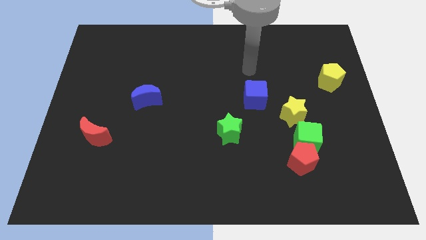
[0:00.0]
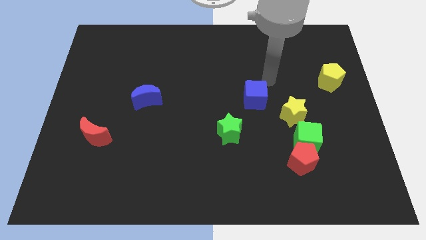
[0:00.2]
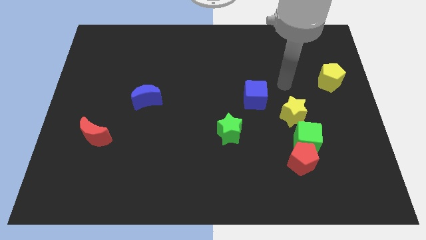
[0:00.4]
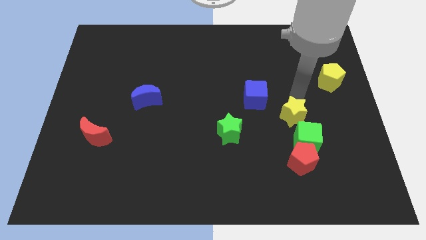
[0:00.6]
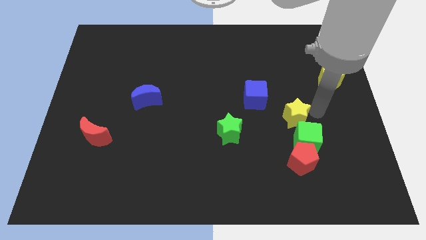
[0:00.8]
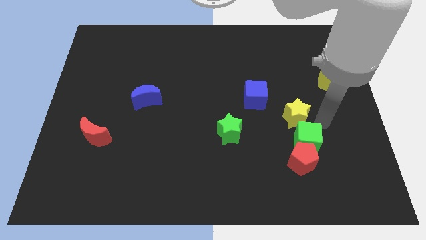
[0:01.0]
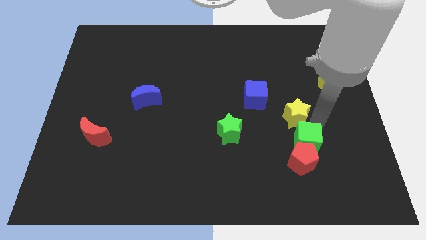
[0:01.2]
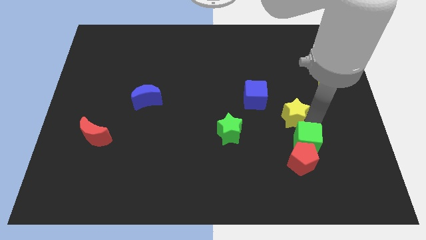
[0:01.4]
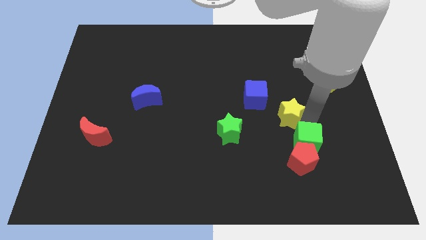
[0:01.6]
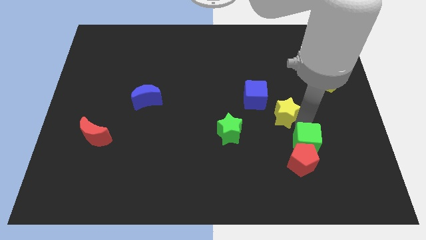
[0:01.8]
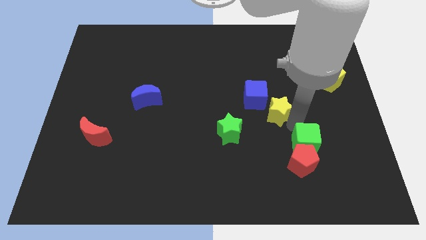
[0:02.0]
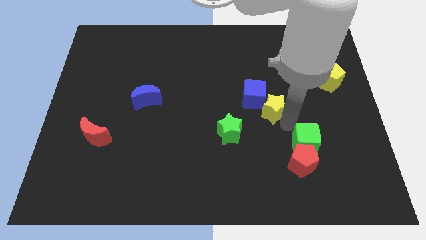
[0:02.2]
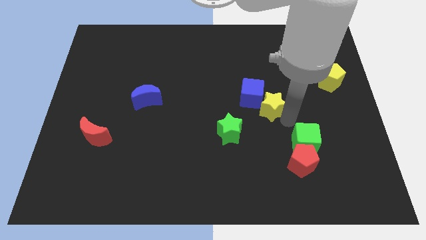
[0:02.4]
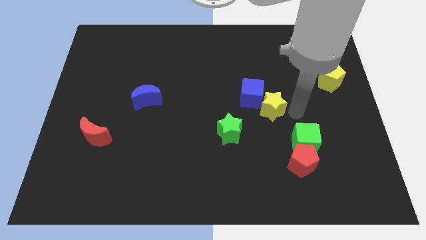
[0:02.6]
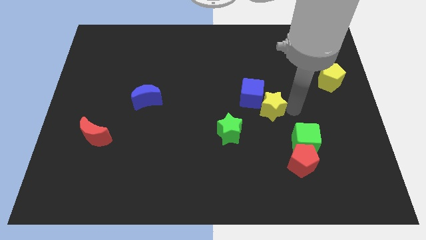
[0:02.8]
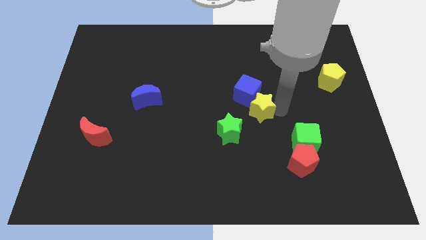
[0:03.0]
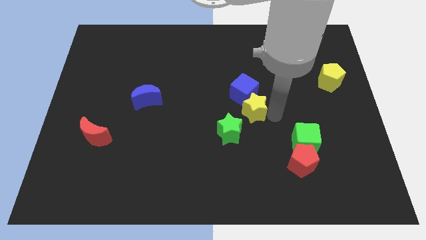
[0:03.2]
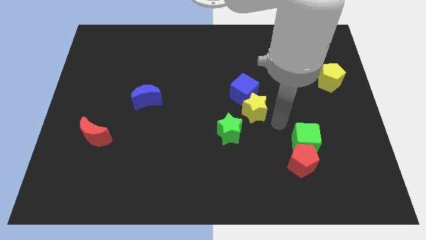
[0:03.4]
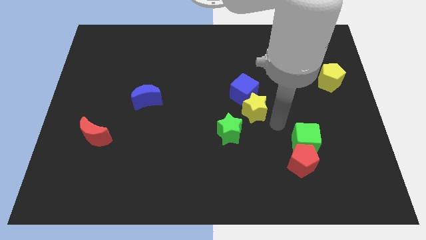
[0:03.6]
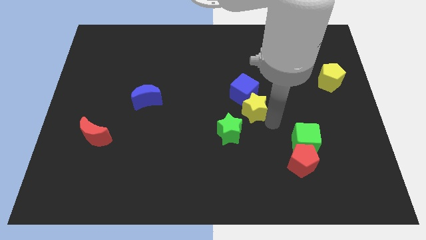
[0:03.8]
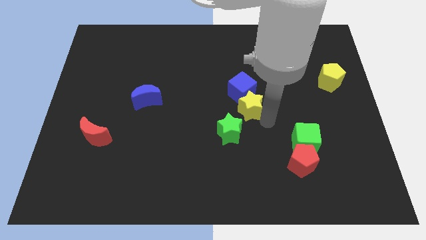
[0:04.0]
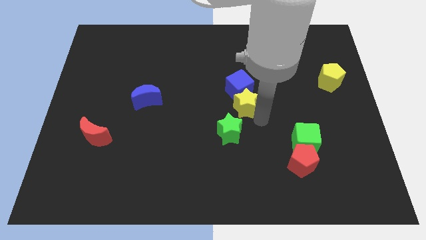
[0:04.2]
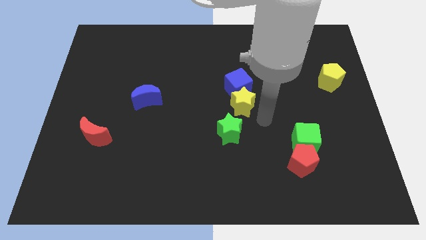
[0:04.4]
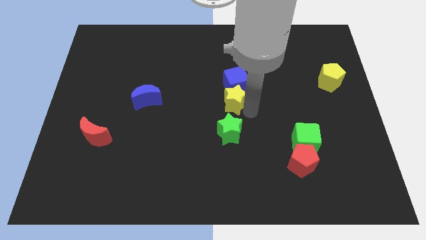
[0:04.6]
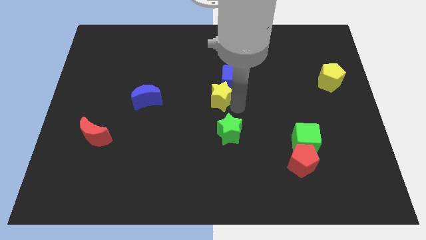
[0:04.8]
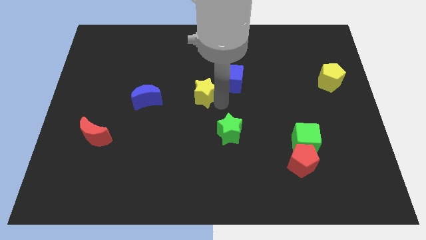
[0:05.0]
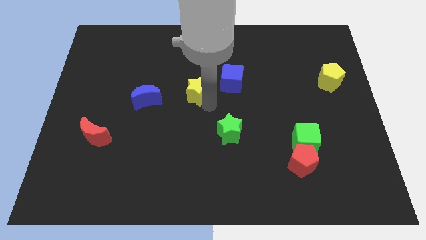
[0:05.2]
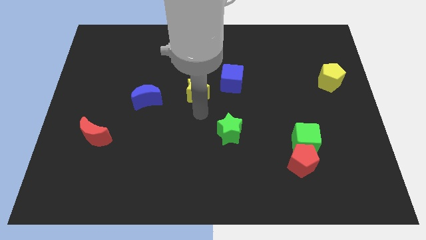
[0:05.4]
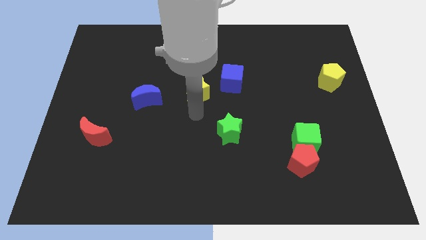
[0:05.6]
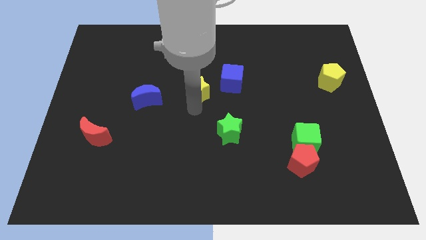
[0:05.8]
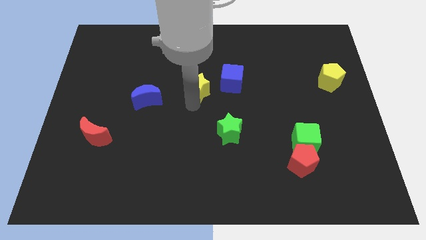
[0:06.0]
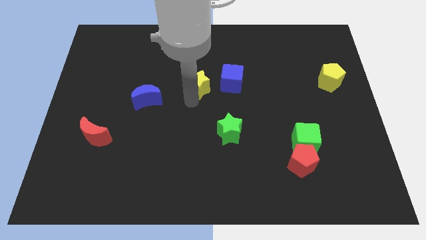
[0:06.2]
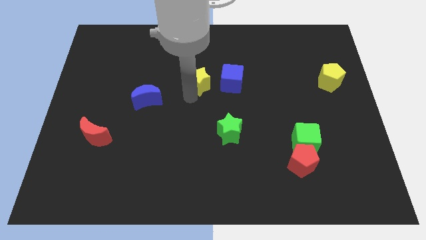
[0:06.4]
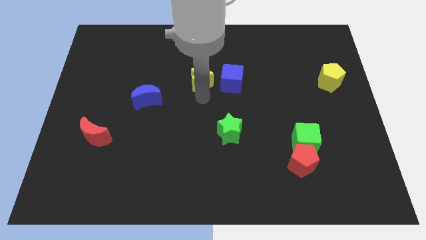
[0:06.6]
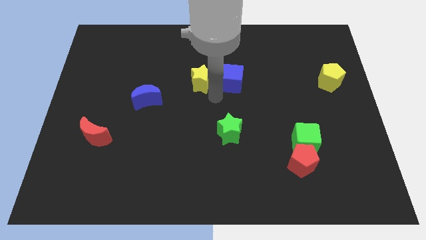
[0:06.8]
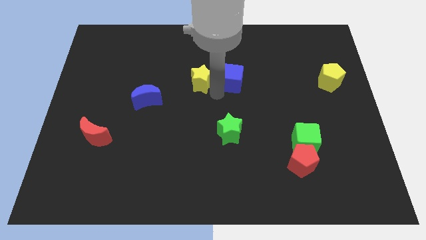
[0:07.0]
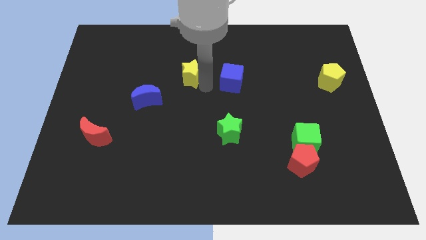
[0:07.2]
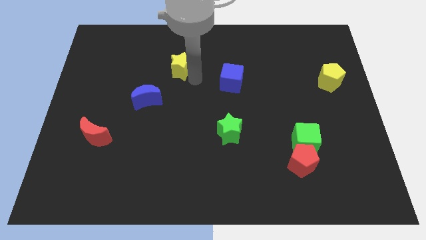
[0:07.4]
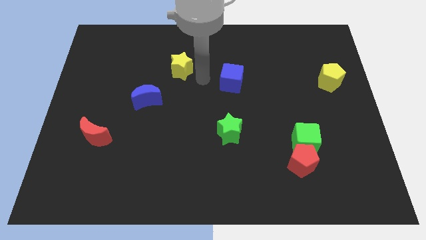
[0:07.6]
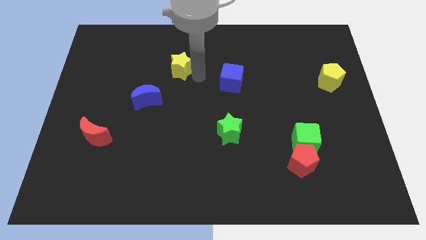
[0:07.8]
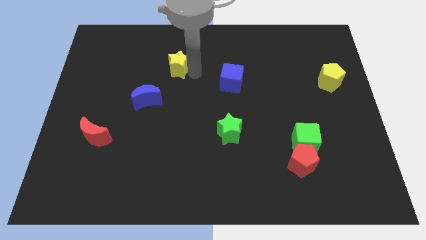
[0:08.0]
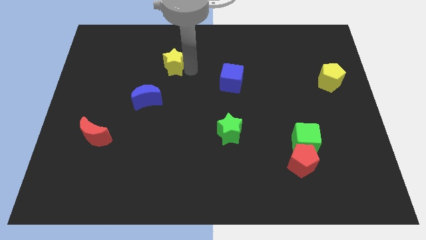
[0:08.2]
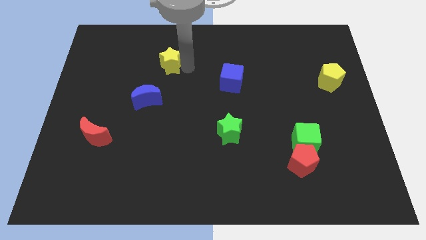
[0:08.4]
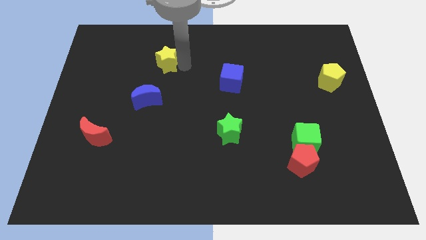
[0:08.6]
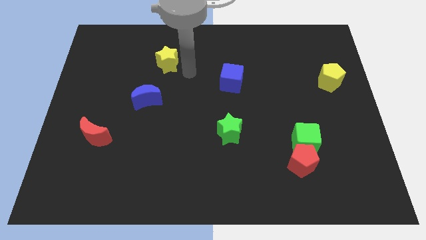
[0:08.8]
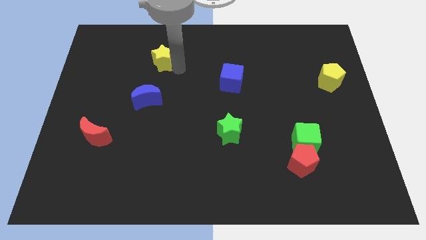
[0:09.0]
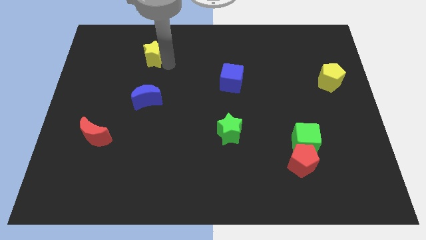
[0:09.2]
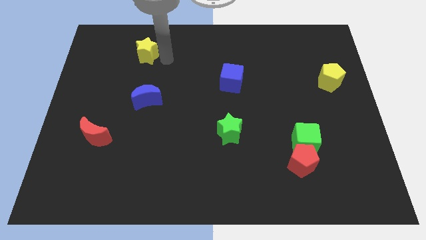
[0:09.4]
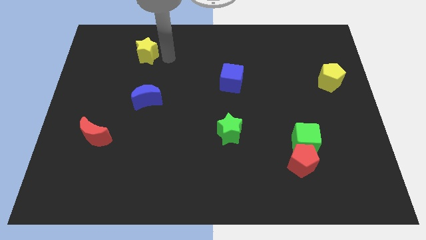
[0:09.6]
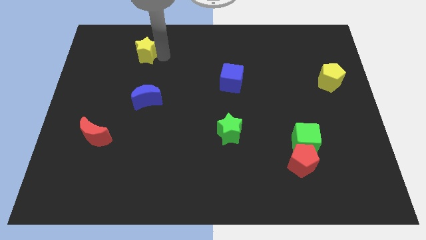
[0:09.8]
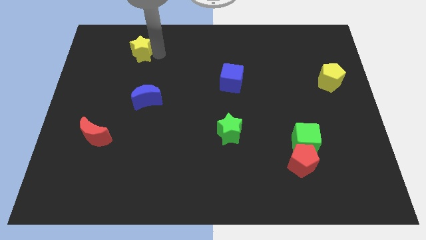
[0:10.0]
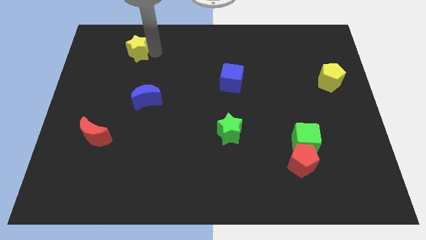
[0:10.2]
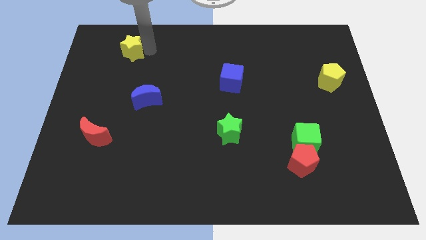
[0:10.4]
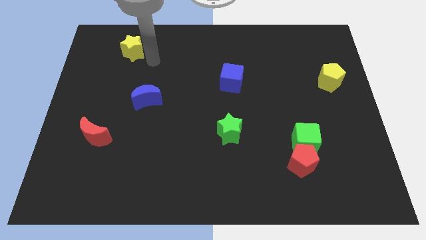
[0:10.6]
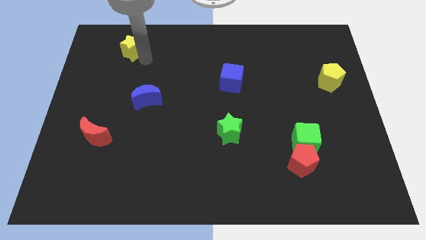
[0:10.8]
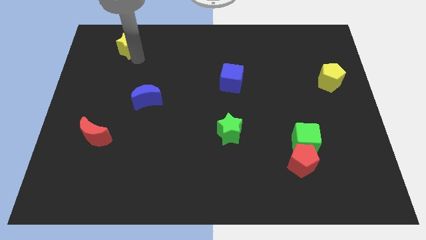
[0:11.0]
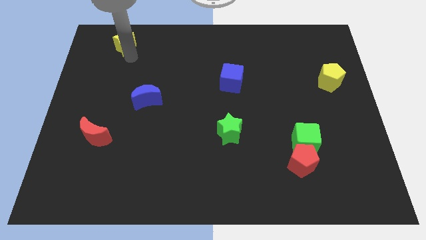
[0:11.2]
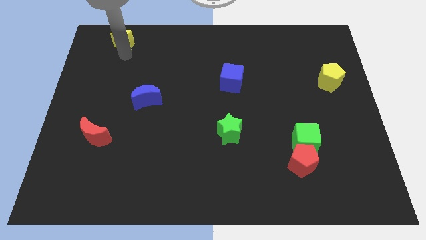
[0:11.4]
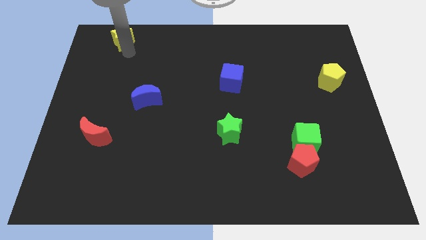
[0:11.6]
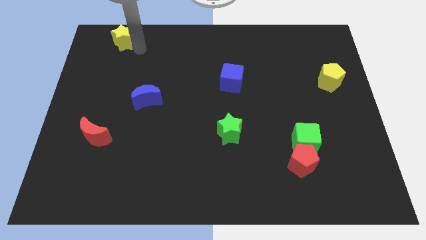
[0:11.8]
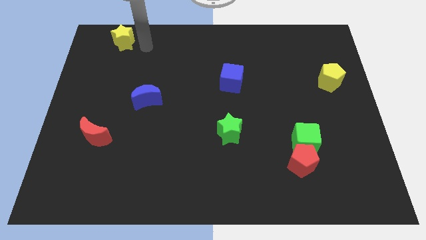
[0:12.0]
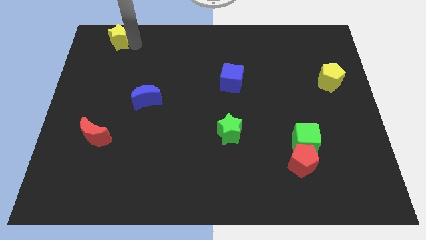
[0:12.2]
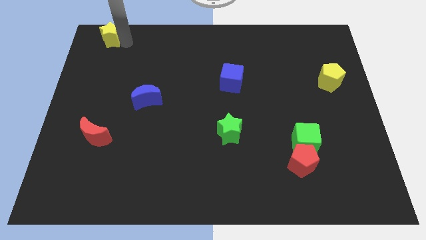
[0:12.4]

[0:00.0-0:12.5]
move the yellow star to the top left
